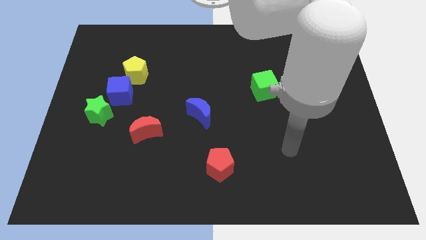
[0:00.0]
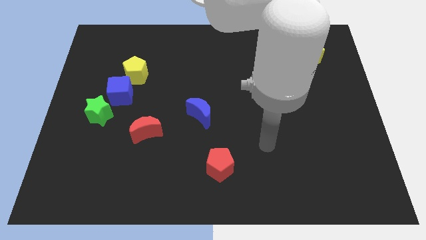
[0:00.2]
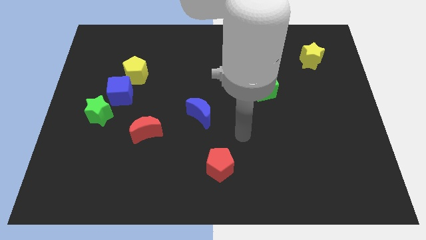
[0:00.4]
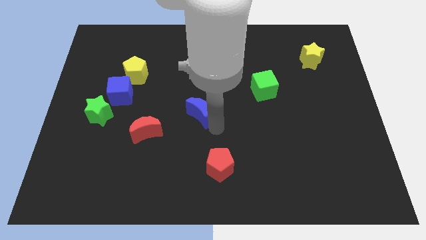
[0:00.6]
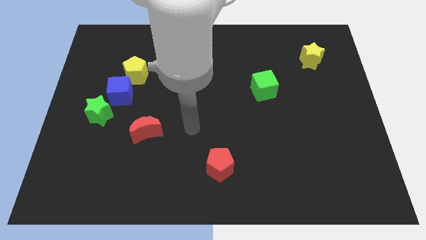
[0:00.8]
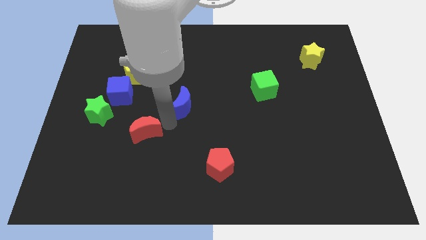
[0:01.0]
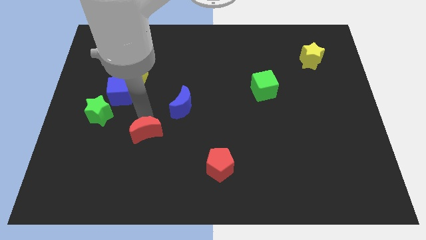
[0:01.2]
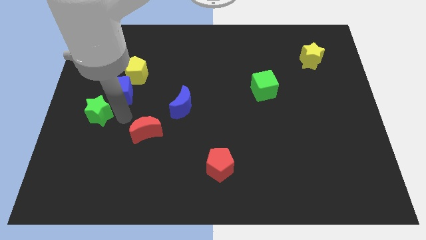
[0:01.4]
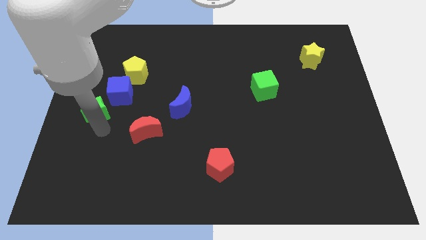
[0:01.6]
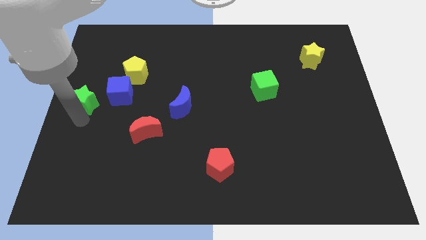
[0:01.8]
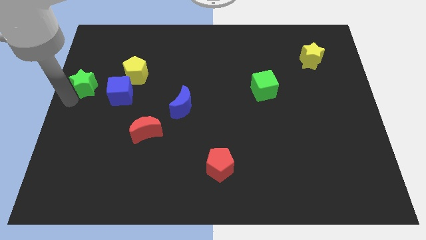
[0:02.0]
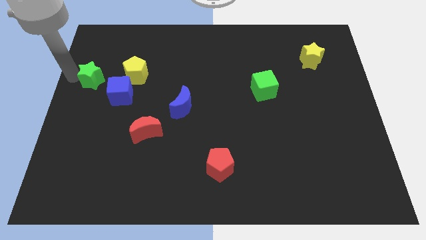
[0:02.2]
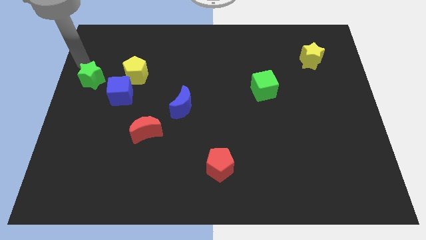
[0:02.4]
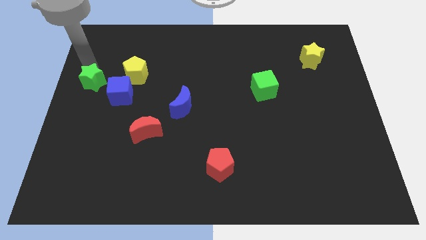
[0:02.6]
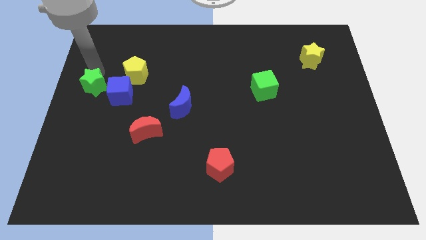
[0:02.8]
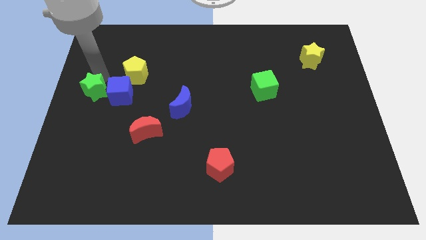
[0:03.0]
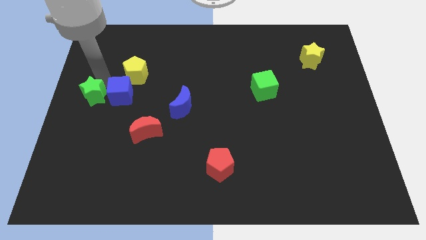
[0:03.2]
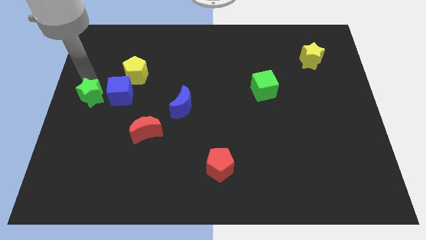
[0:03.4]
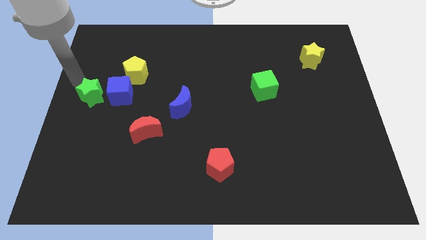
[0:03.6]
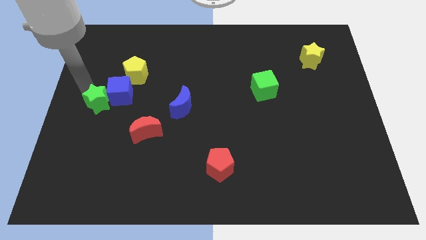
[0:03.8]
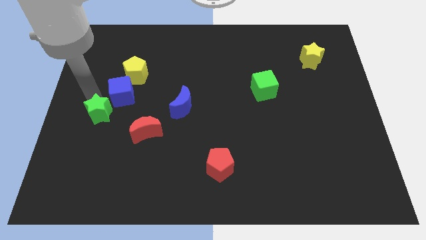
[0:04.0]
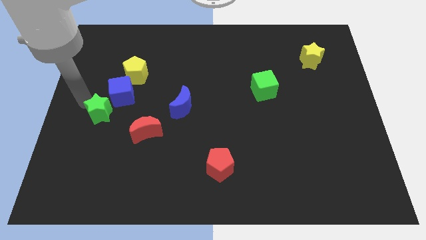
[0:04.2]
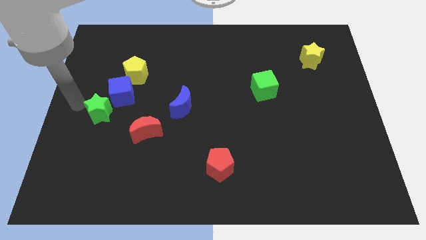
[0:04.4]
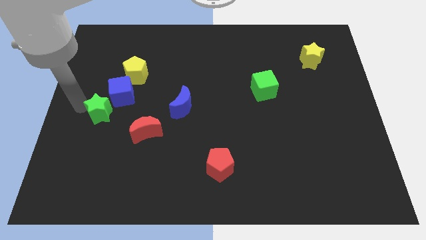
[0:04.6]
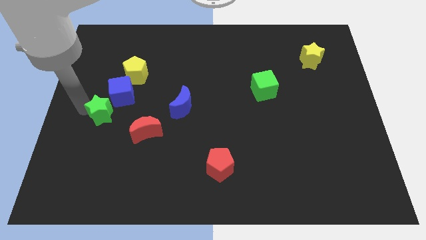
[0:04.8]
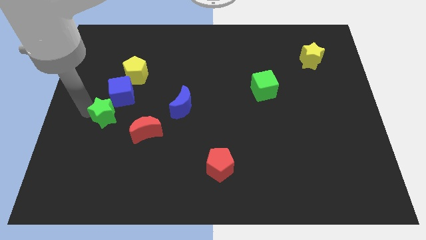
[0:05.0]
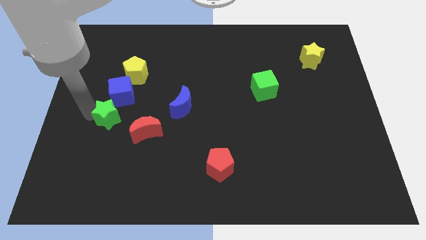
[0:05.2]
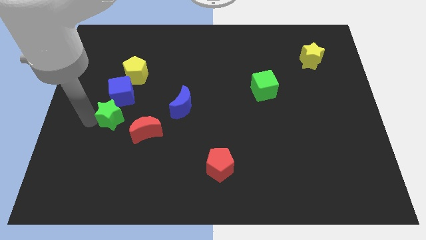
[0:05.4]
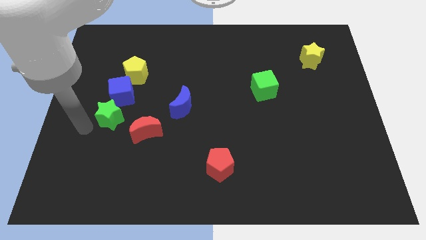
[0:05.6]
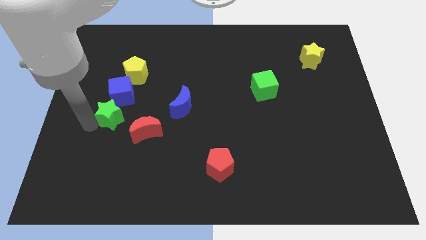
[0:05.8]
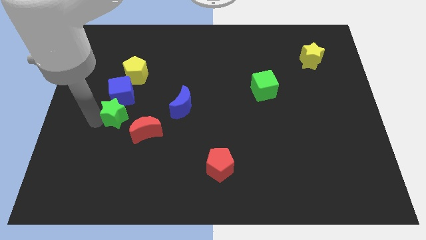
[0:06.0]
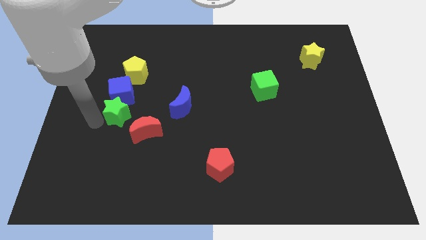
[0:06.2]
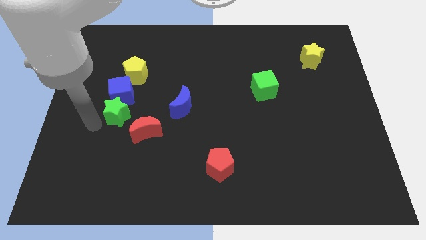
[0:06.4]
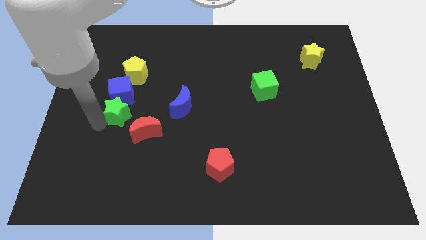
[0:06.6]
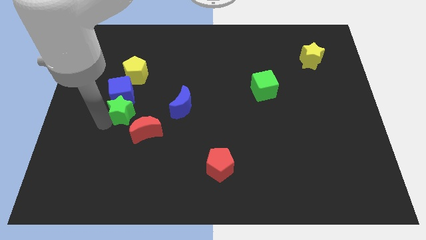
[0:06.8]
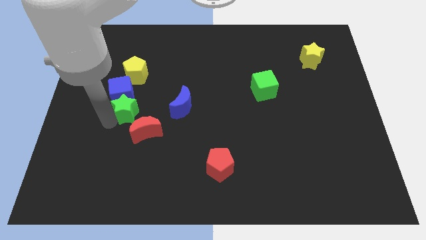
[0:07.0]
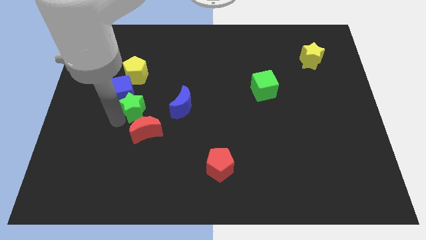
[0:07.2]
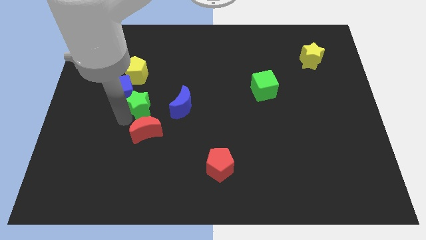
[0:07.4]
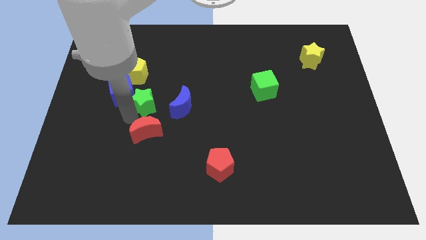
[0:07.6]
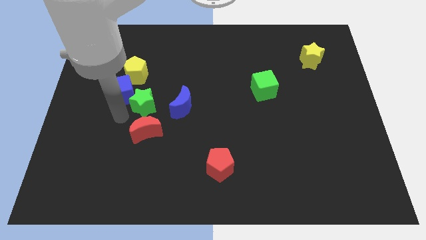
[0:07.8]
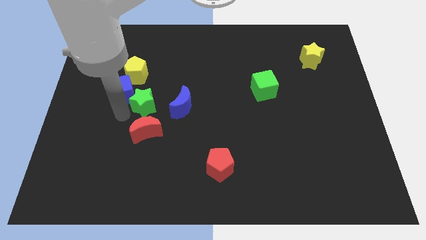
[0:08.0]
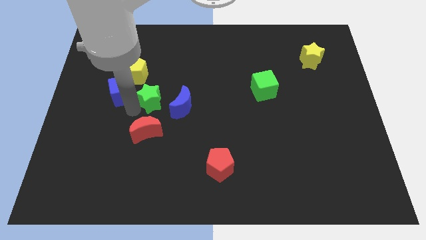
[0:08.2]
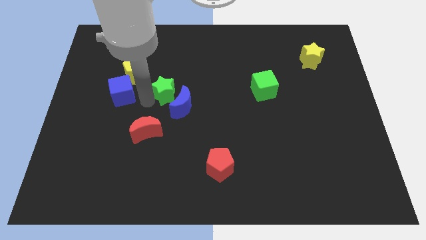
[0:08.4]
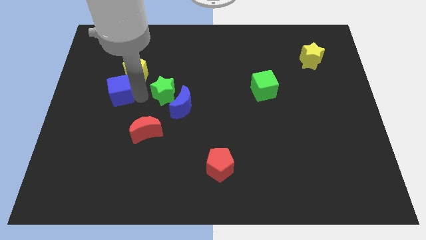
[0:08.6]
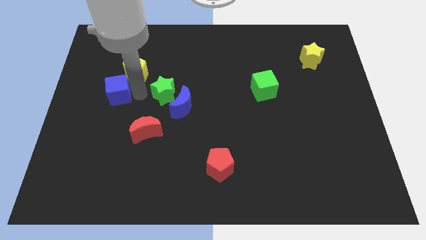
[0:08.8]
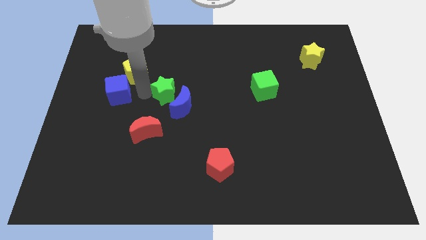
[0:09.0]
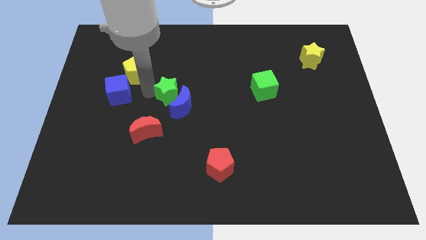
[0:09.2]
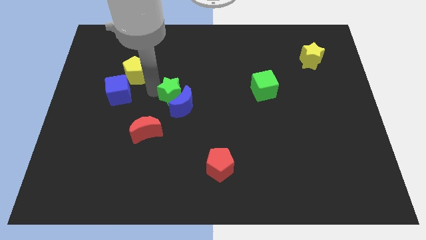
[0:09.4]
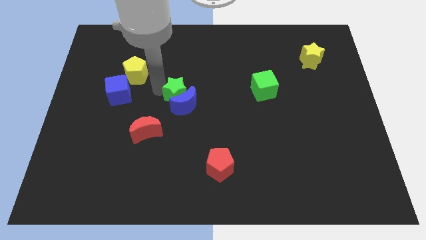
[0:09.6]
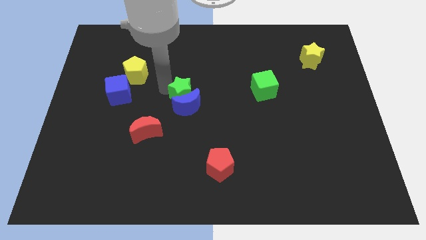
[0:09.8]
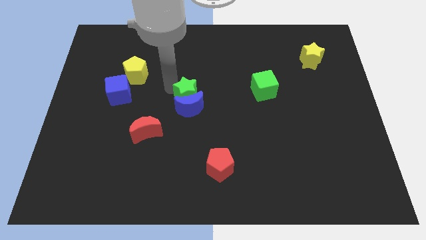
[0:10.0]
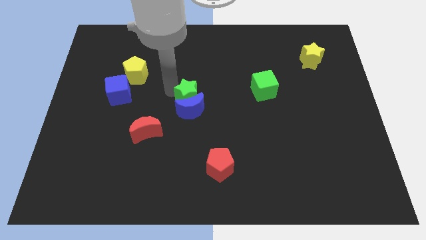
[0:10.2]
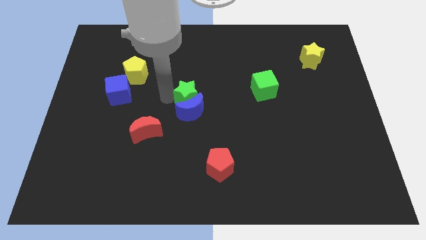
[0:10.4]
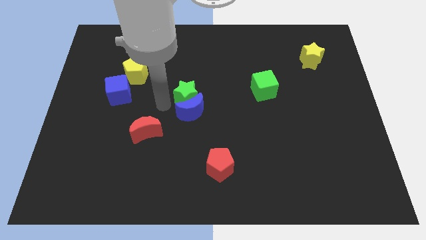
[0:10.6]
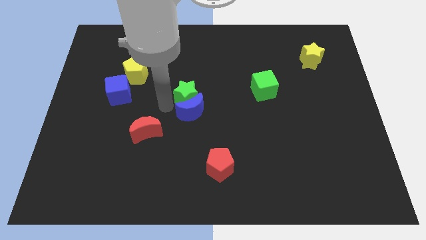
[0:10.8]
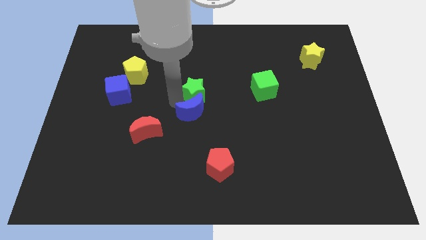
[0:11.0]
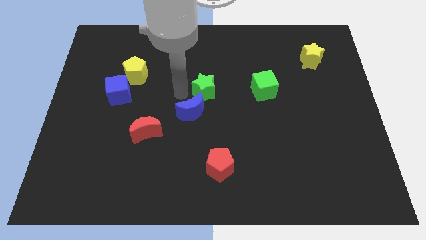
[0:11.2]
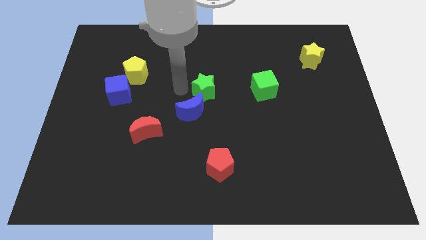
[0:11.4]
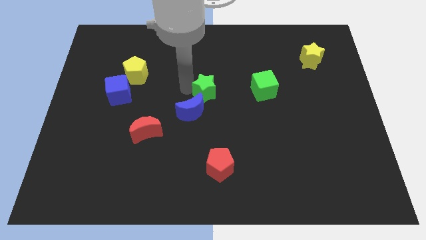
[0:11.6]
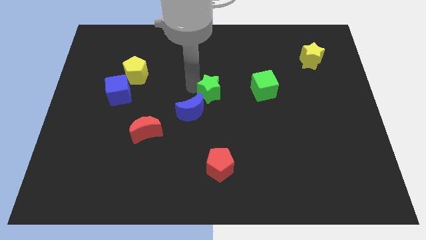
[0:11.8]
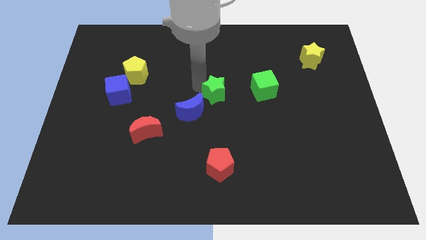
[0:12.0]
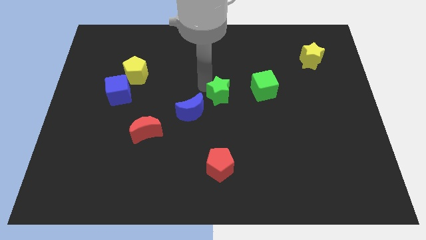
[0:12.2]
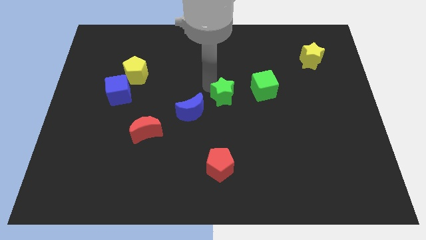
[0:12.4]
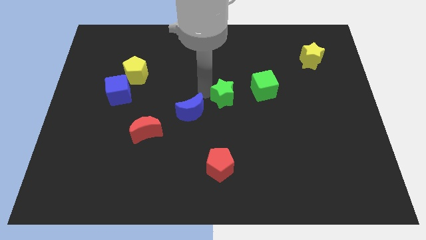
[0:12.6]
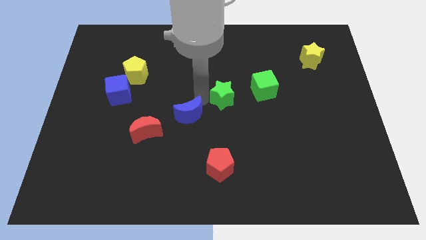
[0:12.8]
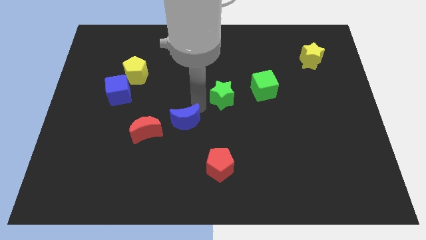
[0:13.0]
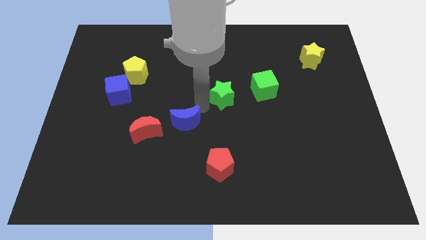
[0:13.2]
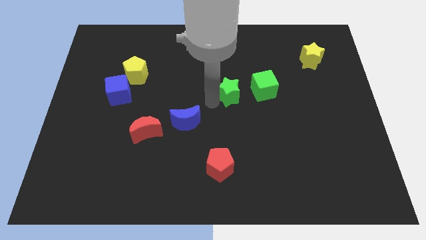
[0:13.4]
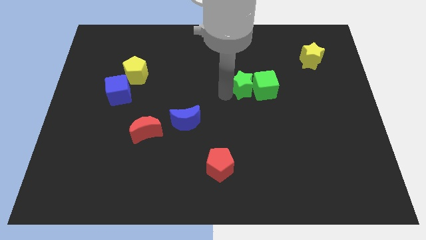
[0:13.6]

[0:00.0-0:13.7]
slide the green star to the green cube

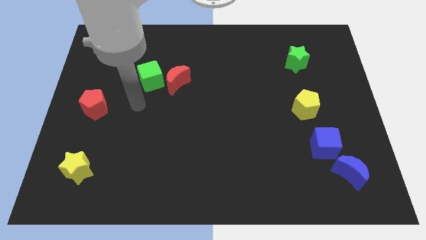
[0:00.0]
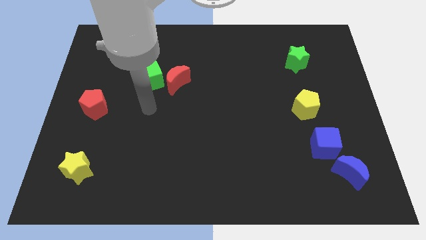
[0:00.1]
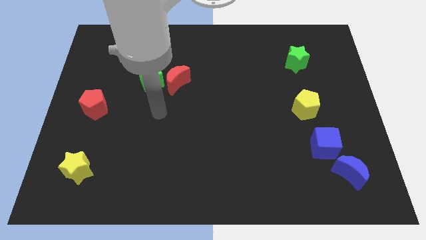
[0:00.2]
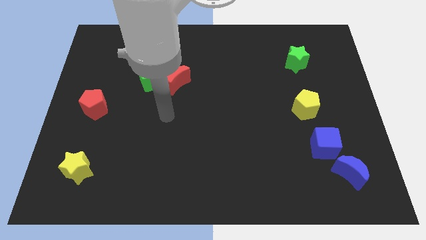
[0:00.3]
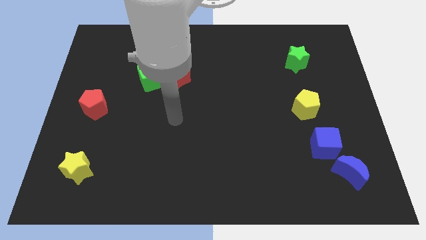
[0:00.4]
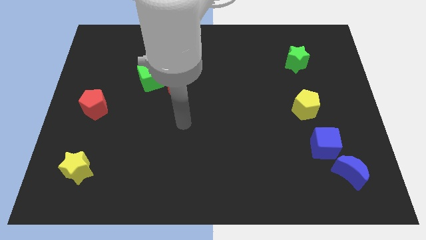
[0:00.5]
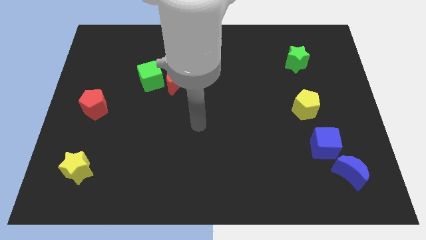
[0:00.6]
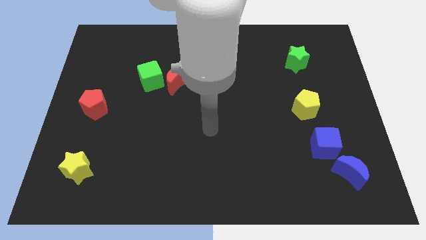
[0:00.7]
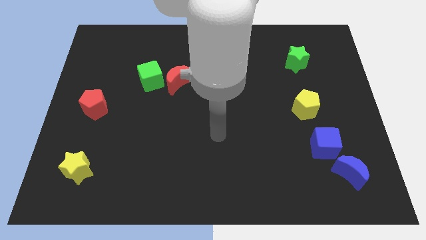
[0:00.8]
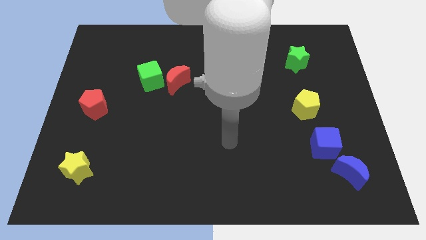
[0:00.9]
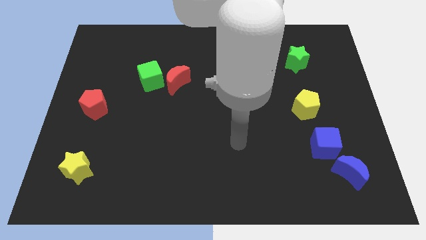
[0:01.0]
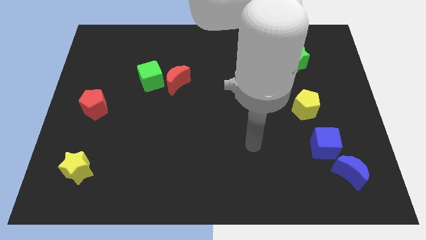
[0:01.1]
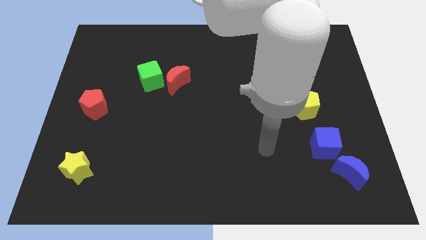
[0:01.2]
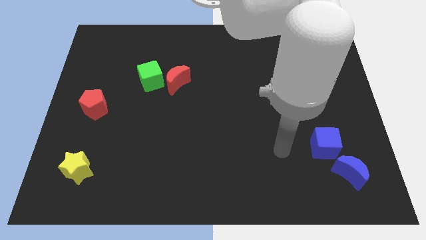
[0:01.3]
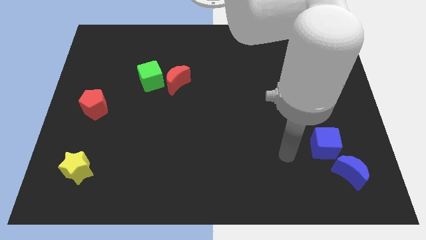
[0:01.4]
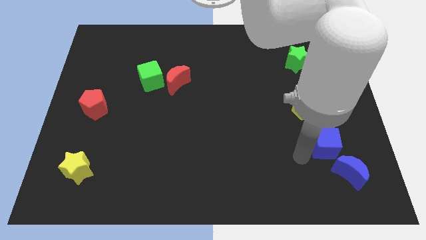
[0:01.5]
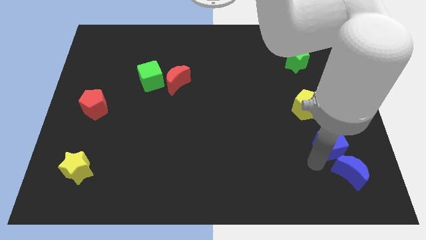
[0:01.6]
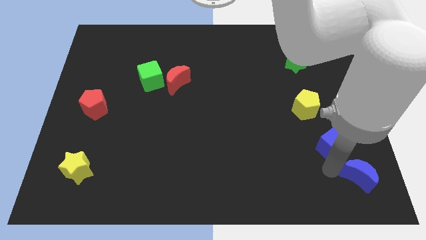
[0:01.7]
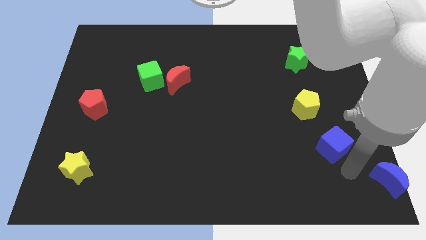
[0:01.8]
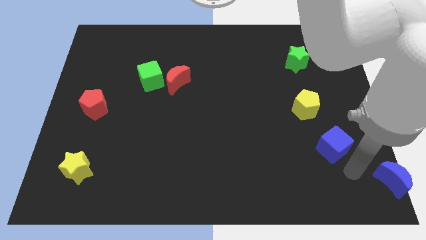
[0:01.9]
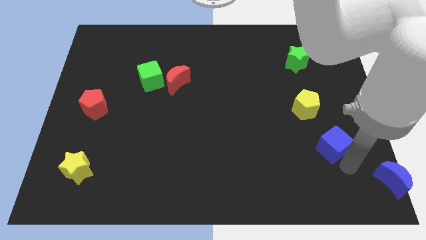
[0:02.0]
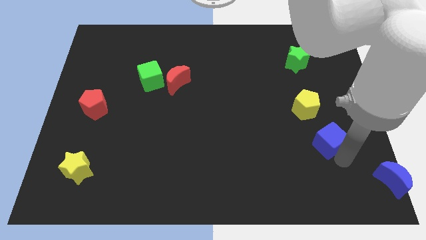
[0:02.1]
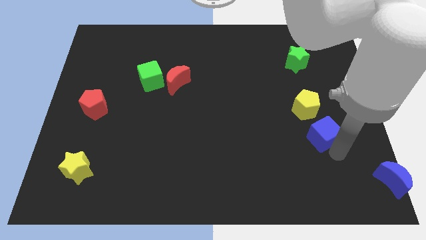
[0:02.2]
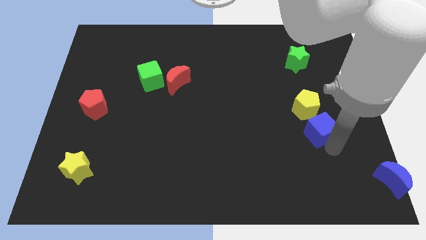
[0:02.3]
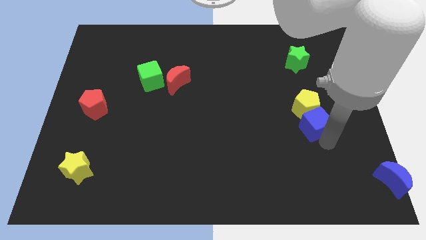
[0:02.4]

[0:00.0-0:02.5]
move the blue cube close to the yellow pentagon
